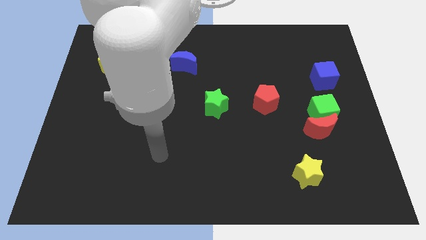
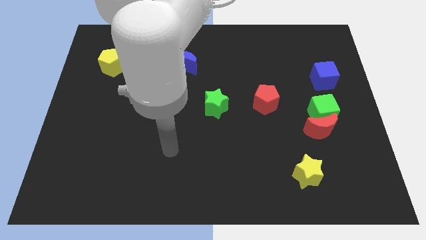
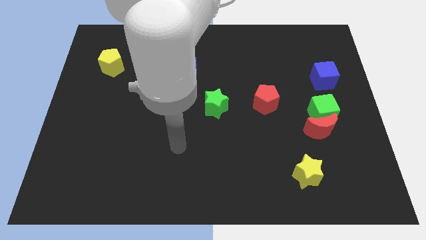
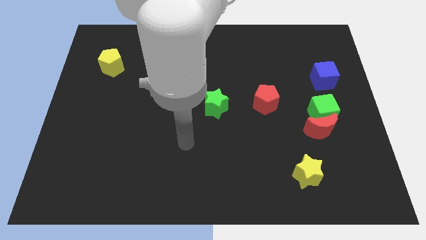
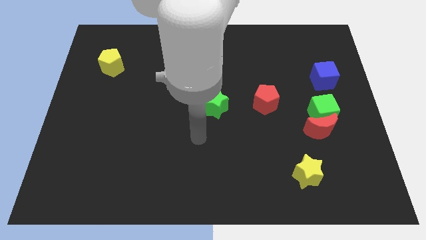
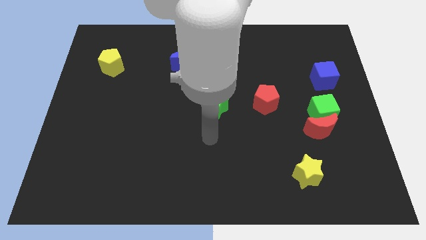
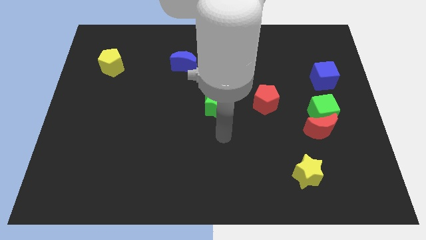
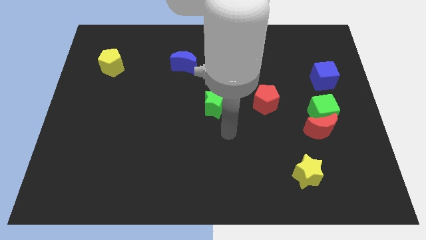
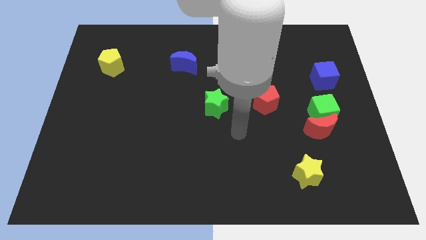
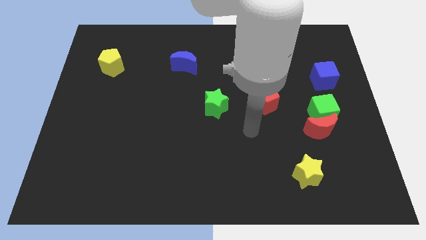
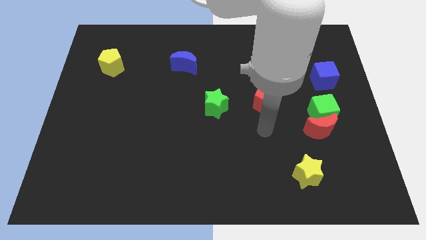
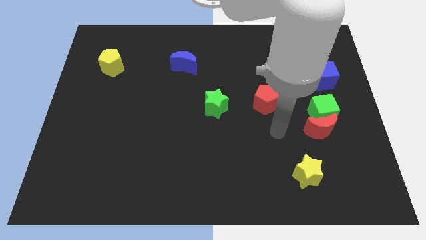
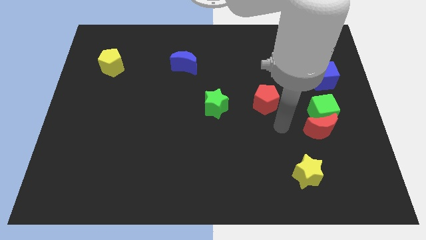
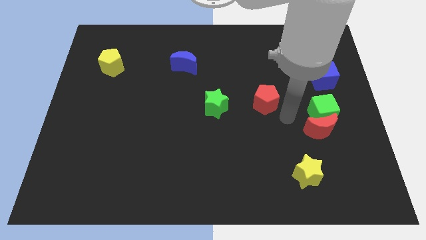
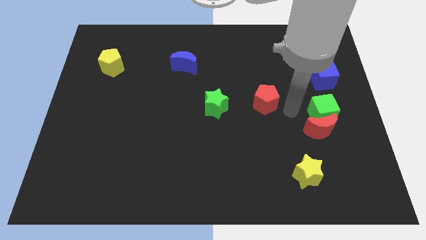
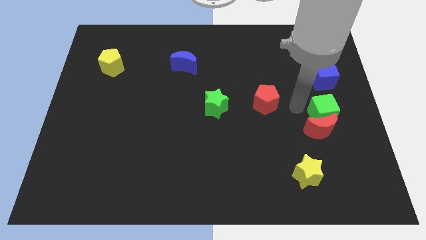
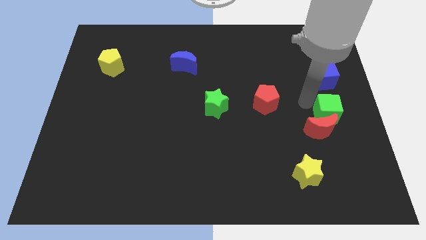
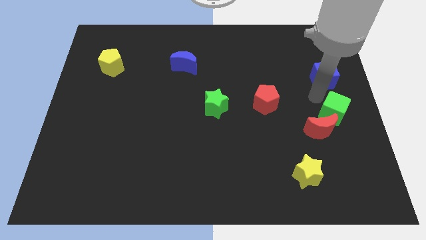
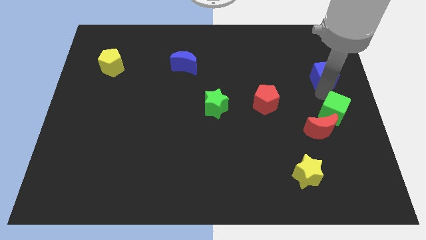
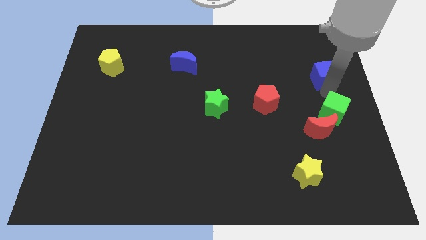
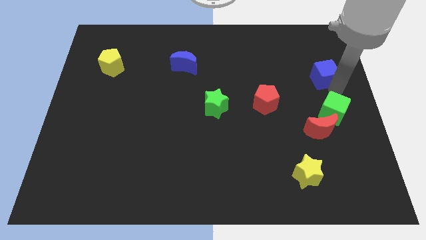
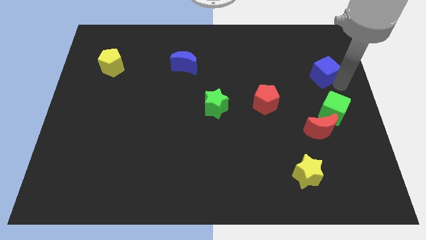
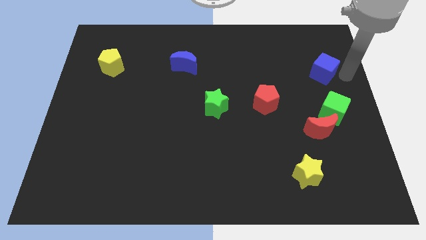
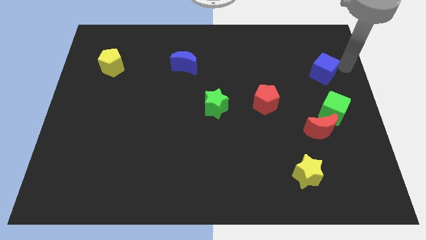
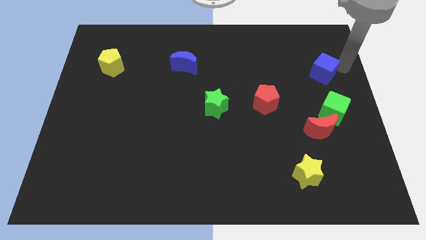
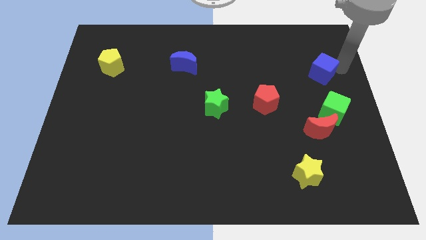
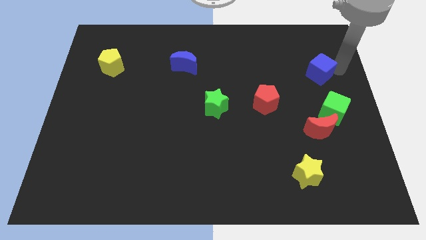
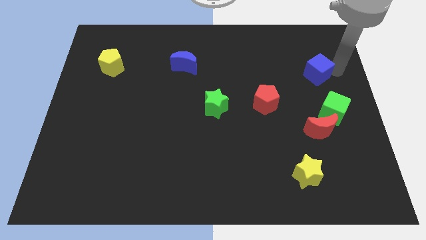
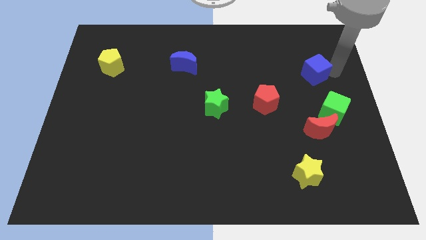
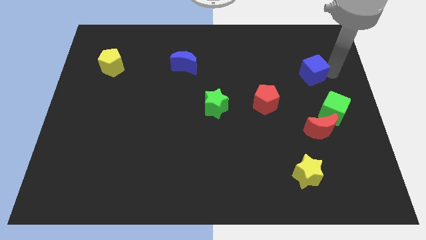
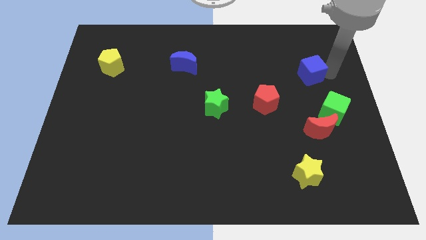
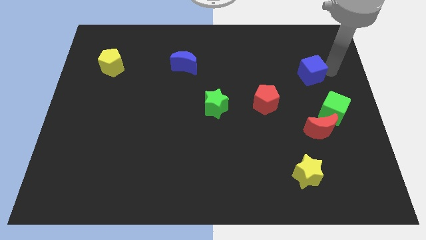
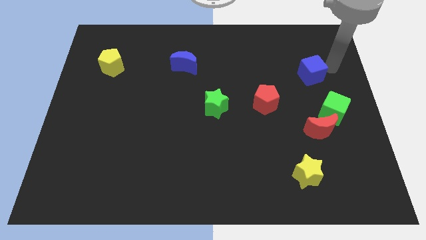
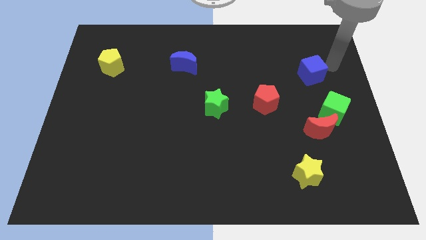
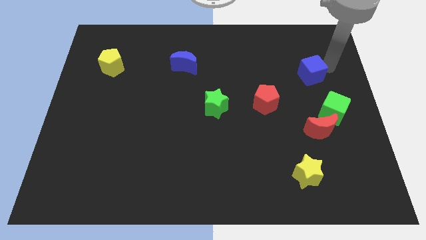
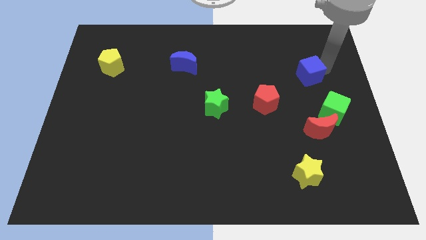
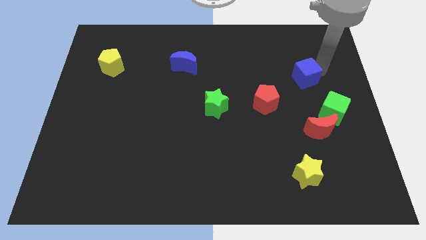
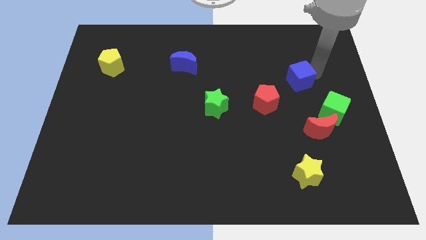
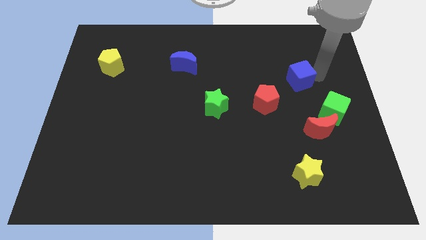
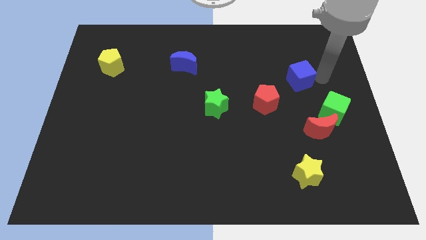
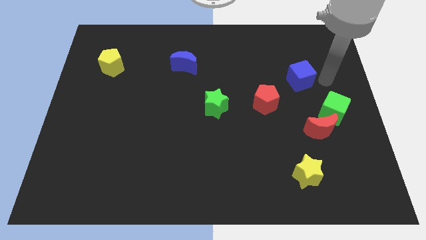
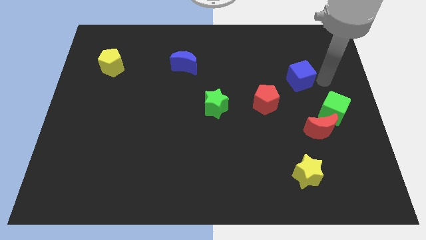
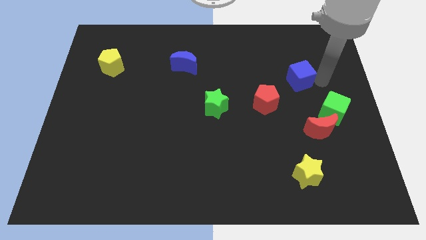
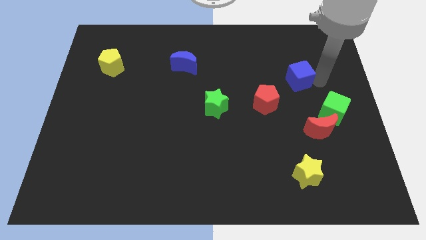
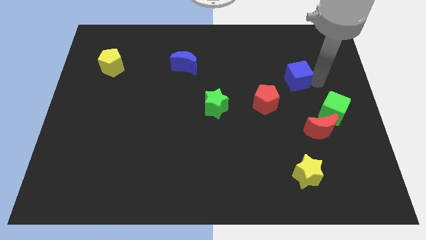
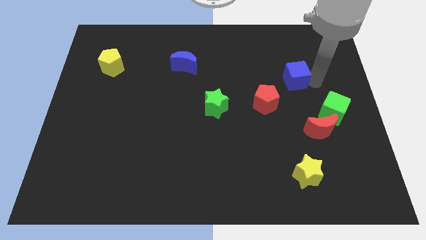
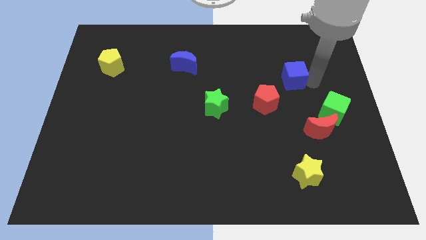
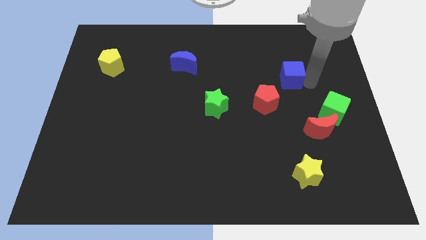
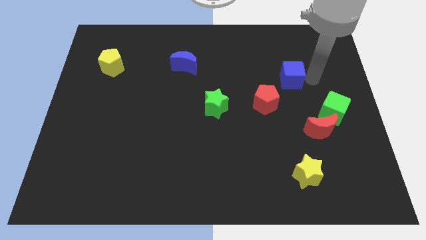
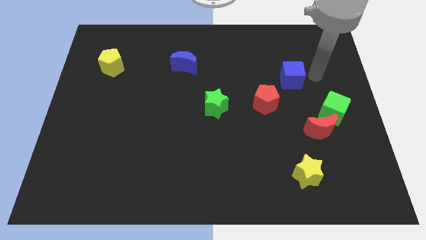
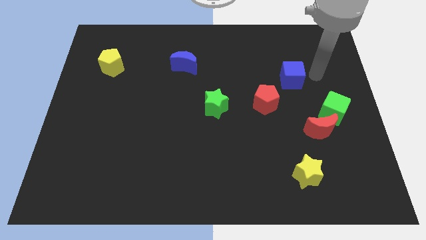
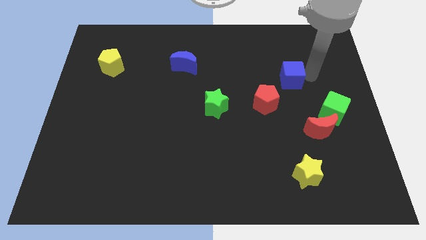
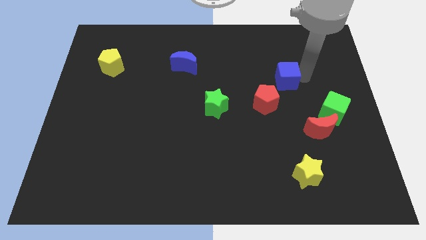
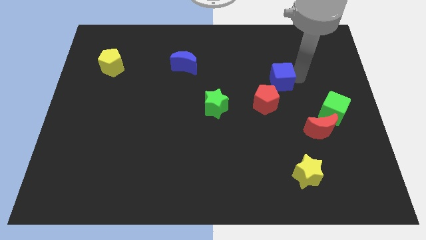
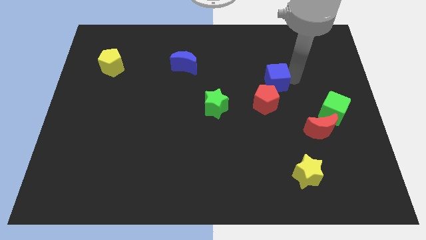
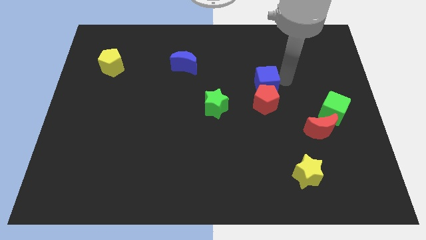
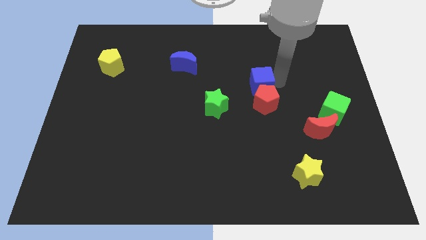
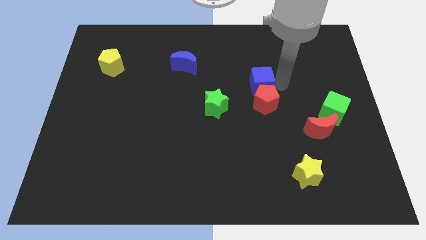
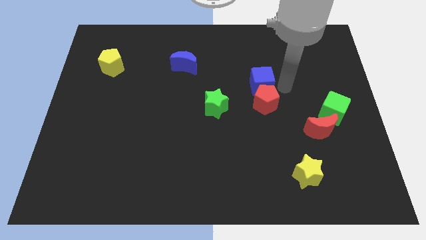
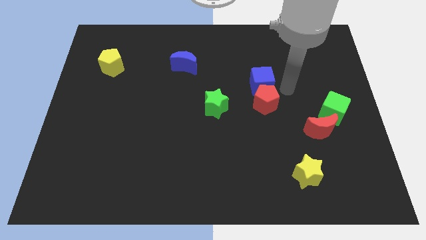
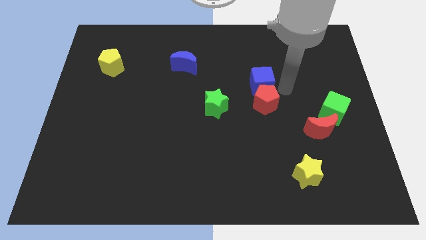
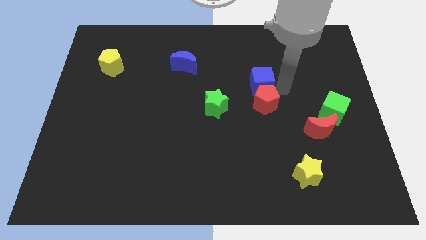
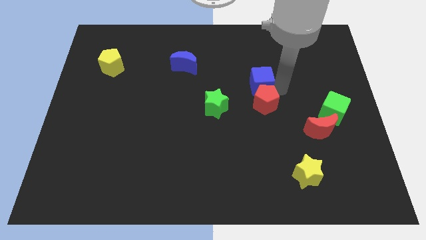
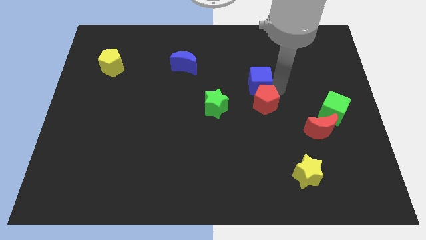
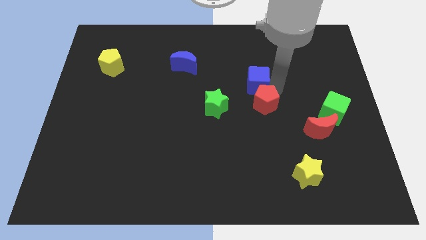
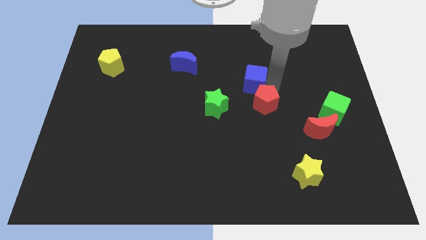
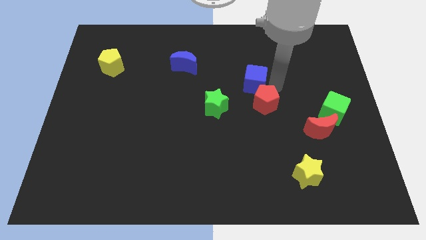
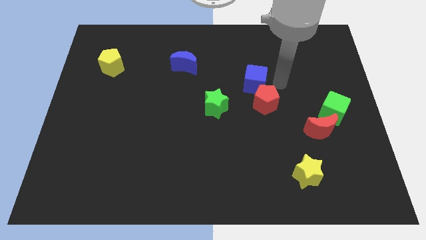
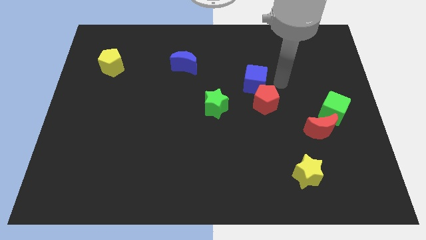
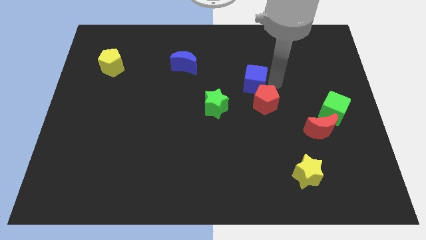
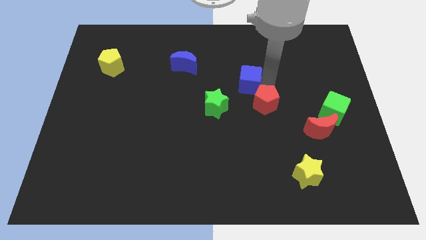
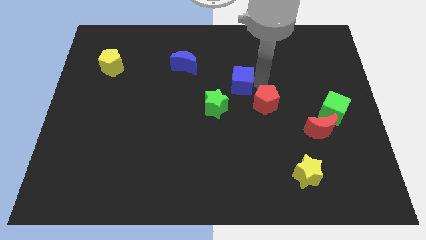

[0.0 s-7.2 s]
move the blue cube left

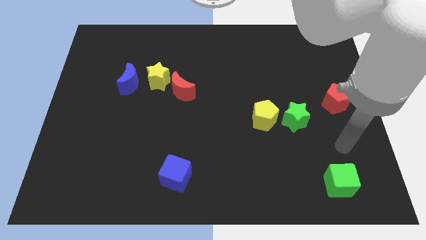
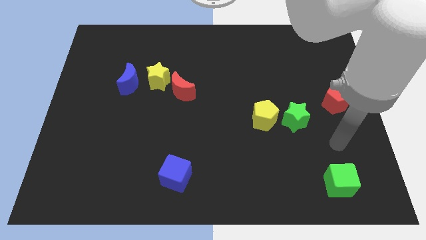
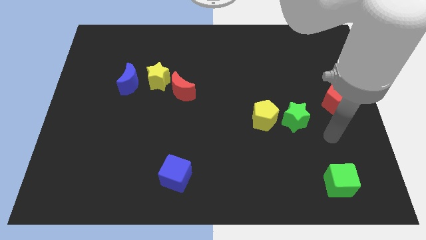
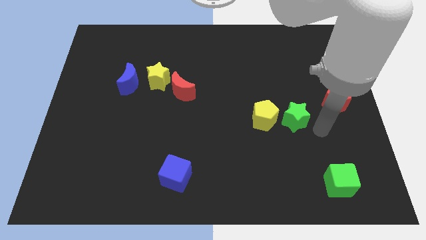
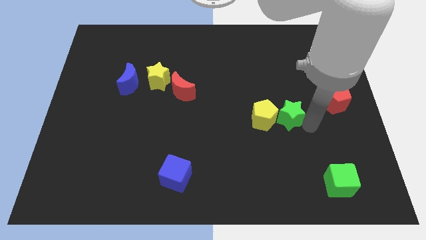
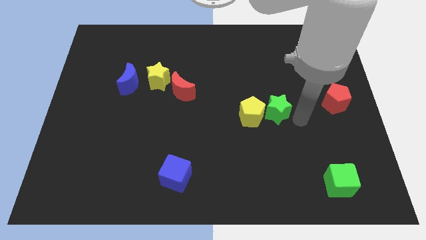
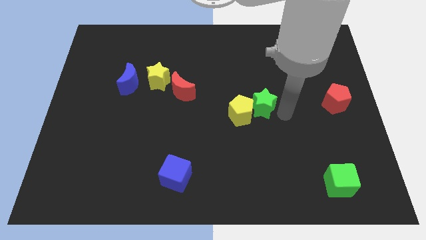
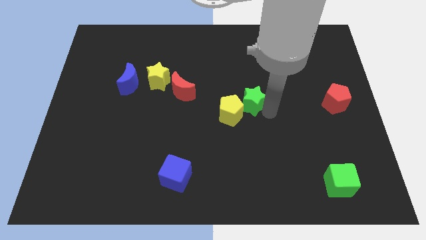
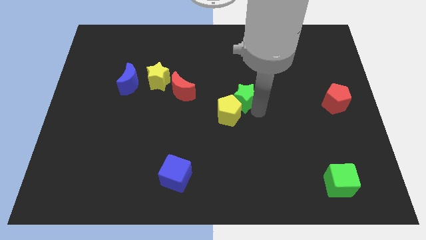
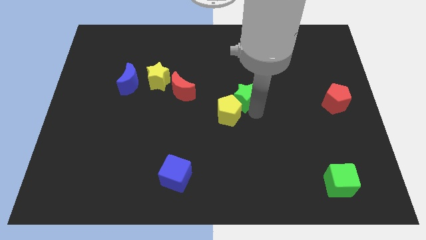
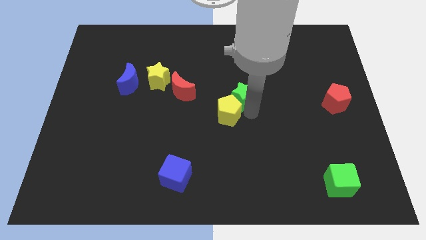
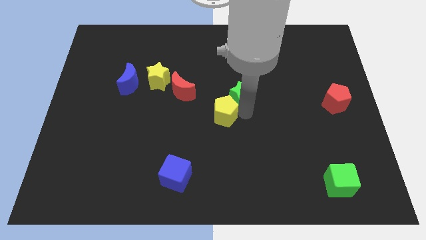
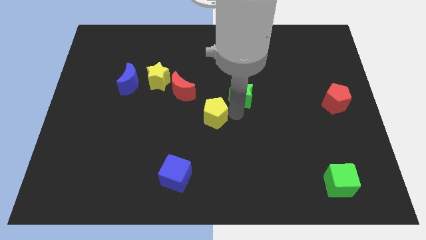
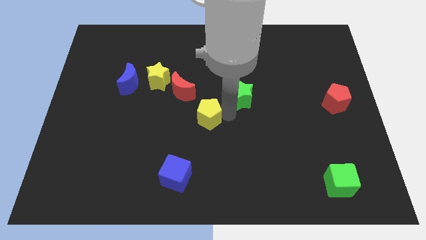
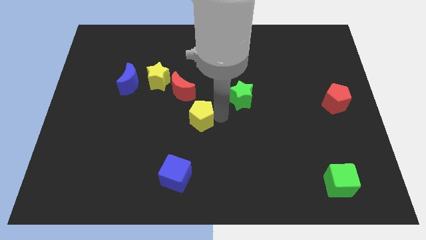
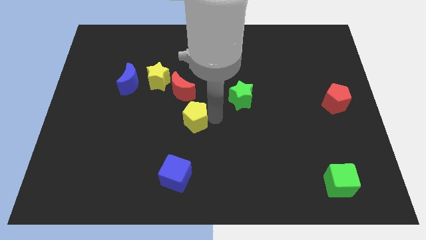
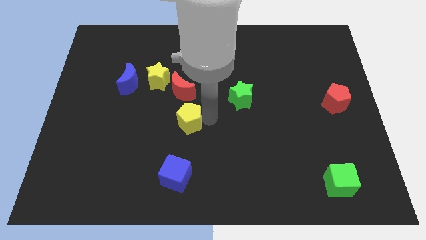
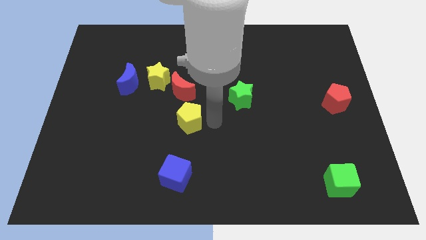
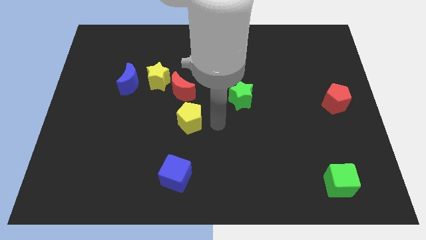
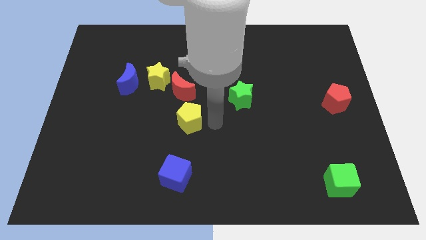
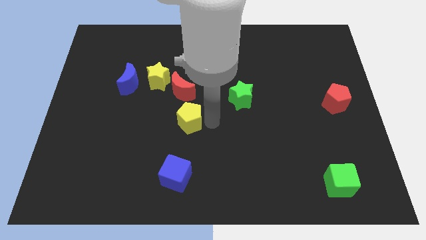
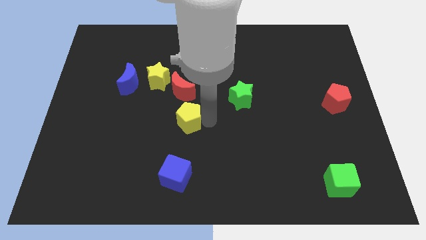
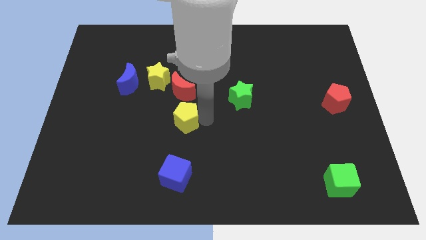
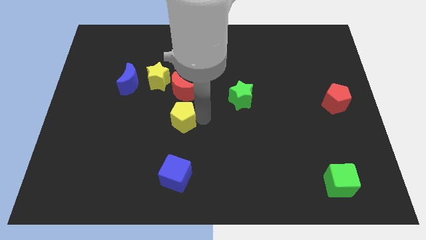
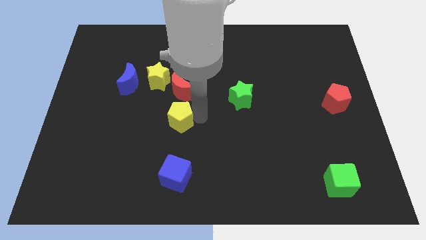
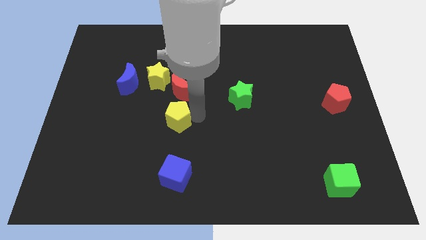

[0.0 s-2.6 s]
push the yellow pentagon to the left
